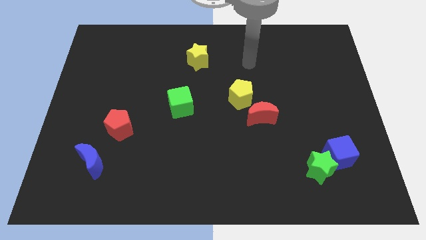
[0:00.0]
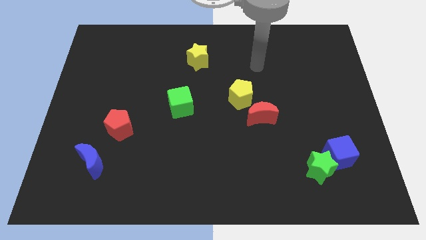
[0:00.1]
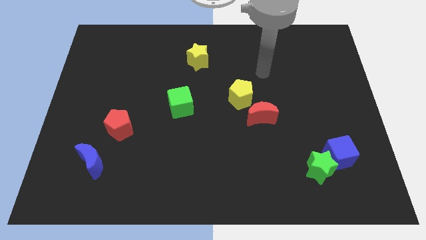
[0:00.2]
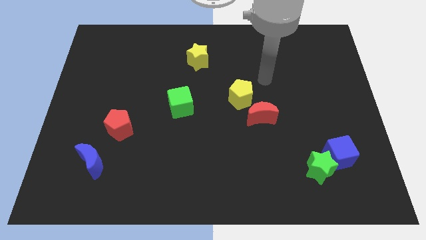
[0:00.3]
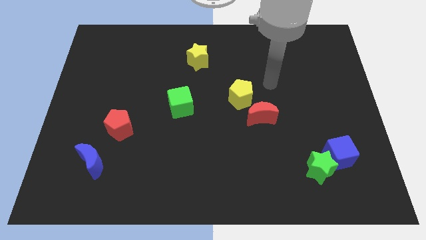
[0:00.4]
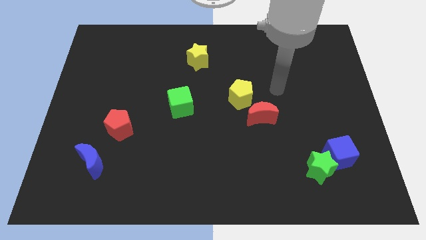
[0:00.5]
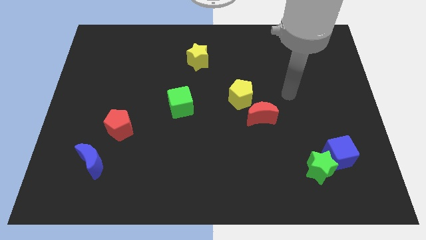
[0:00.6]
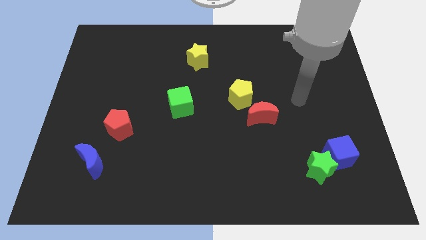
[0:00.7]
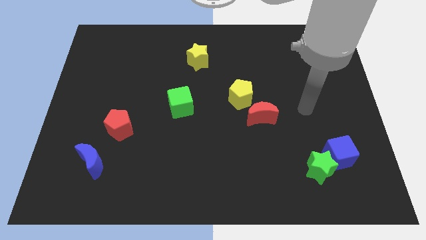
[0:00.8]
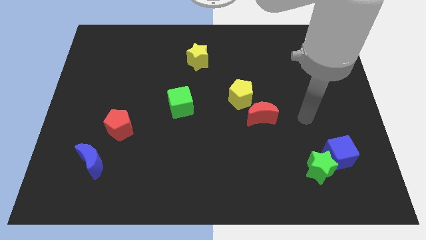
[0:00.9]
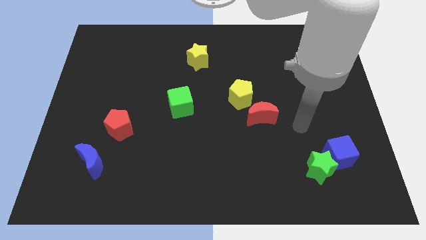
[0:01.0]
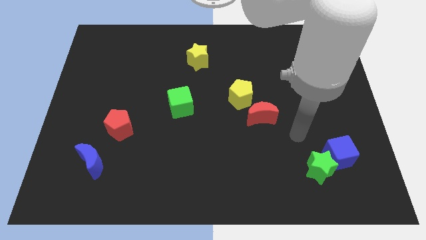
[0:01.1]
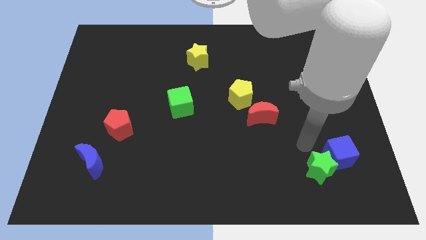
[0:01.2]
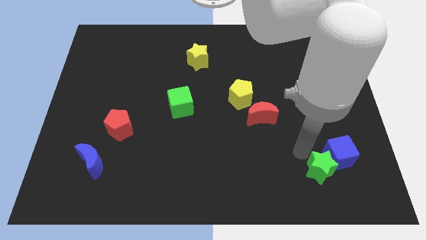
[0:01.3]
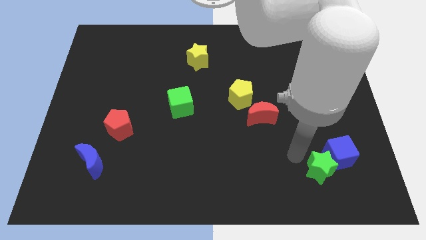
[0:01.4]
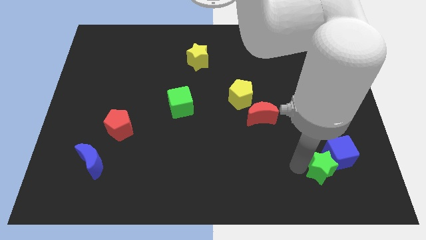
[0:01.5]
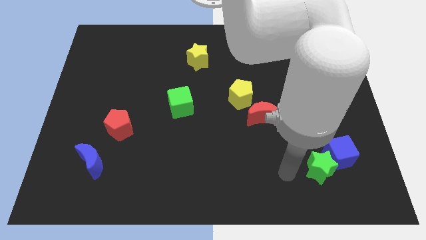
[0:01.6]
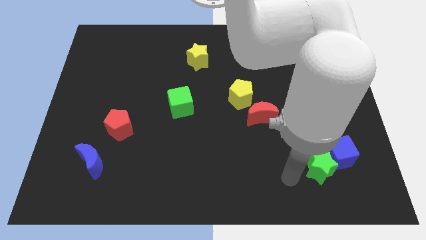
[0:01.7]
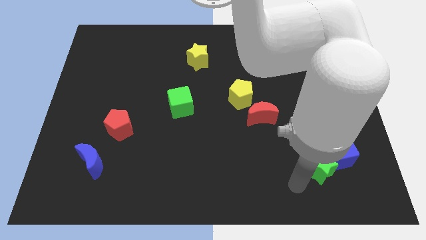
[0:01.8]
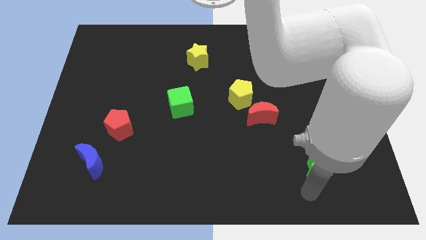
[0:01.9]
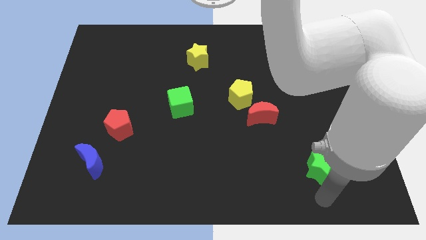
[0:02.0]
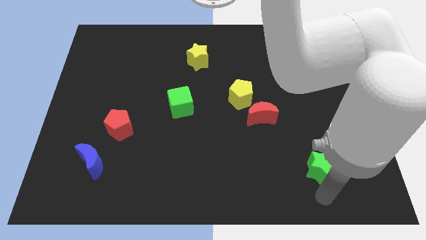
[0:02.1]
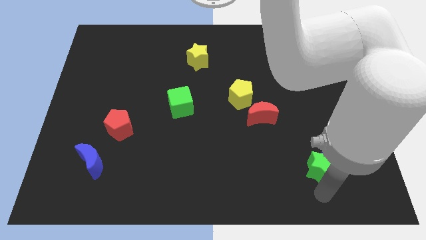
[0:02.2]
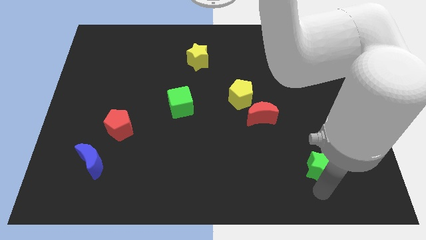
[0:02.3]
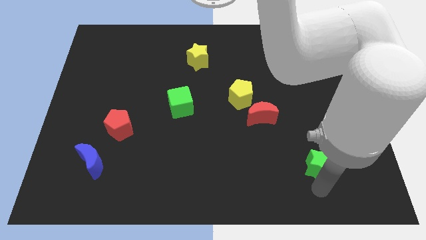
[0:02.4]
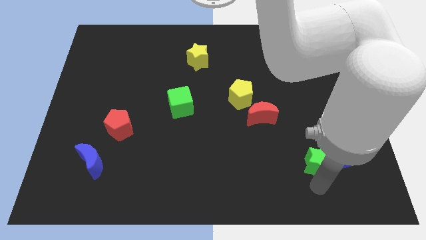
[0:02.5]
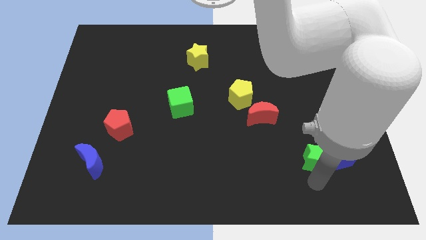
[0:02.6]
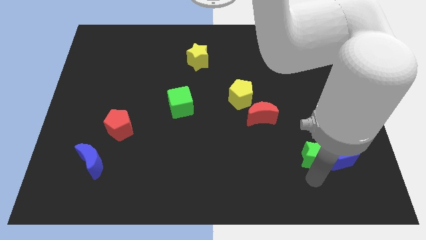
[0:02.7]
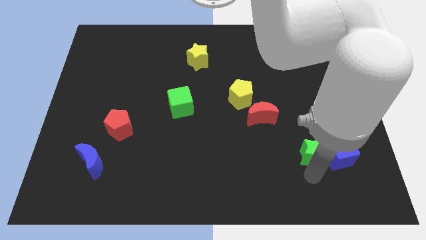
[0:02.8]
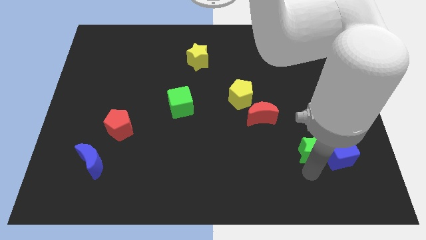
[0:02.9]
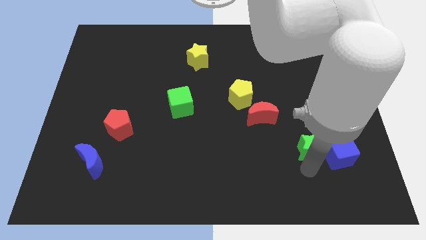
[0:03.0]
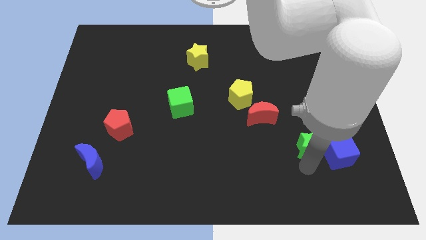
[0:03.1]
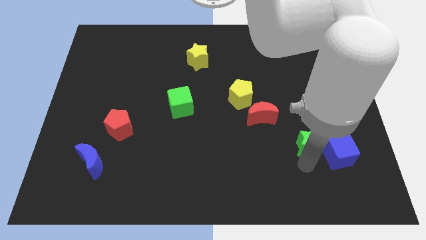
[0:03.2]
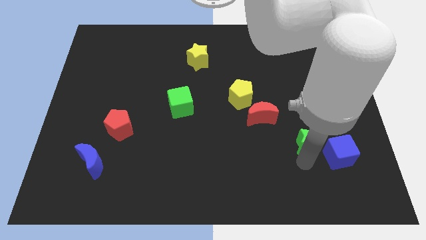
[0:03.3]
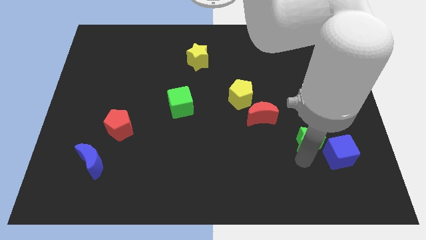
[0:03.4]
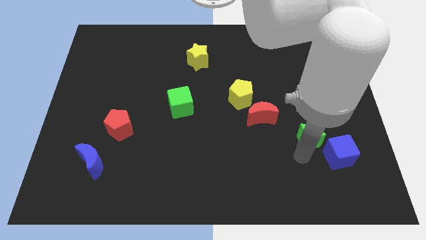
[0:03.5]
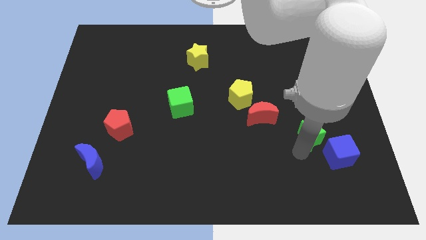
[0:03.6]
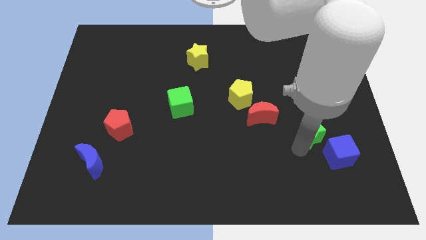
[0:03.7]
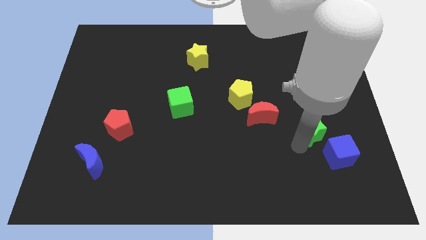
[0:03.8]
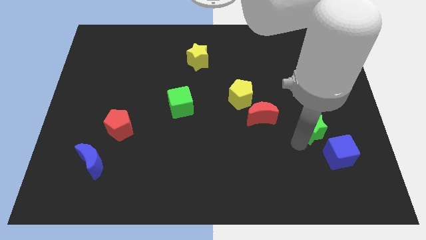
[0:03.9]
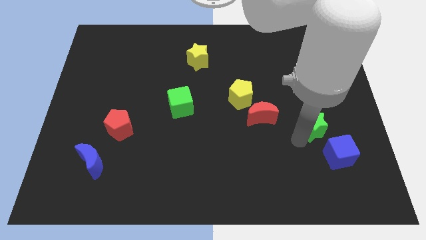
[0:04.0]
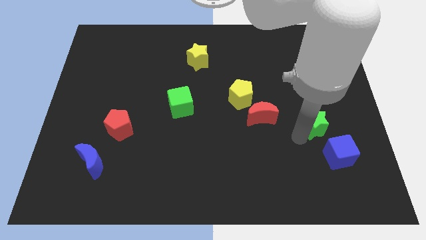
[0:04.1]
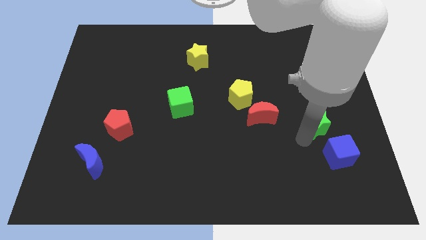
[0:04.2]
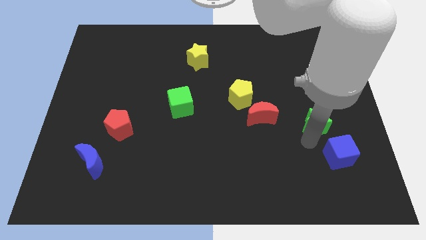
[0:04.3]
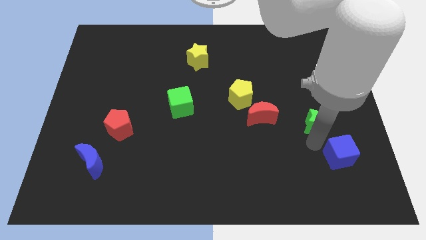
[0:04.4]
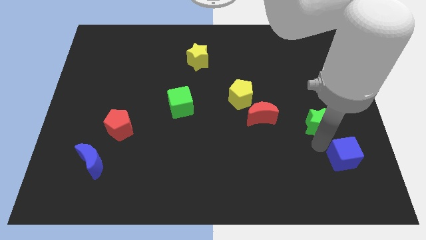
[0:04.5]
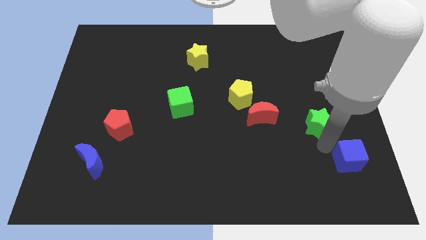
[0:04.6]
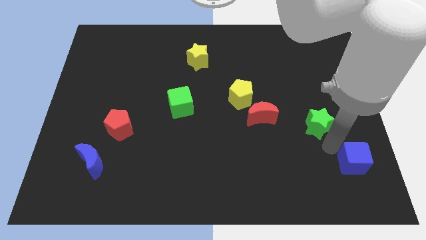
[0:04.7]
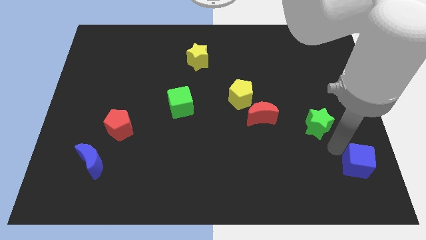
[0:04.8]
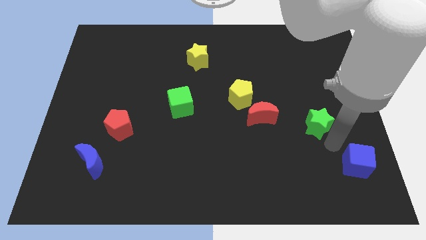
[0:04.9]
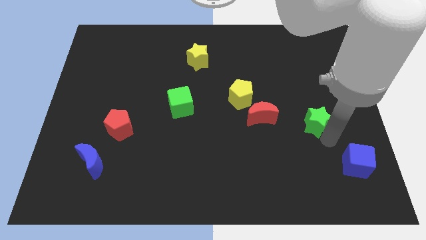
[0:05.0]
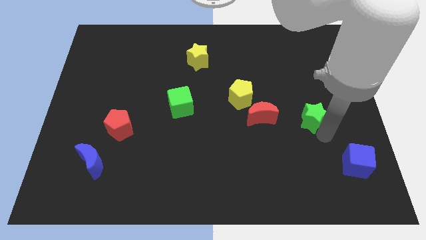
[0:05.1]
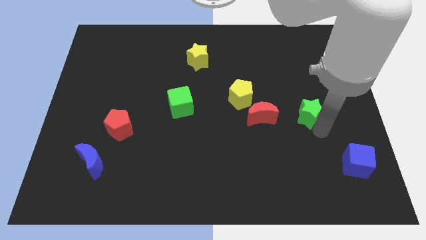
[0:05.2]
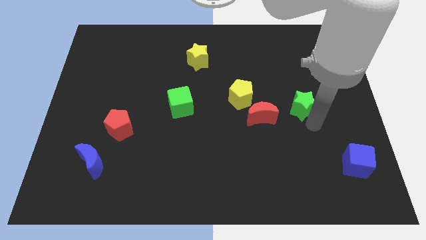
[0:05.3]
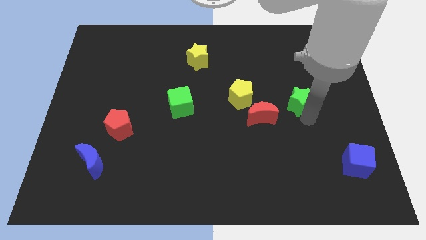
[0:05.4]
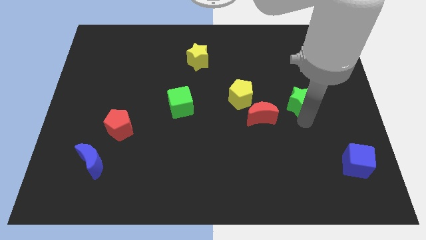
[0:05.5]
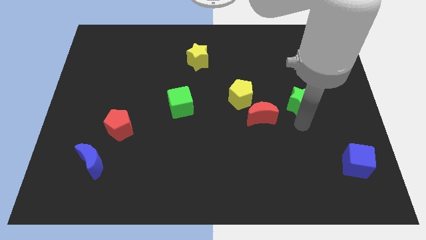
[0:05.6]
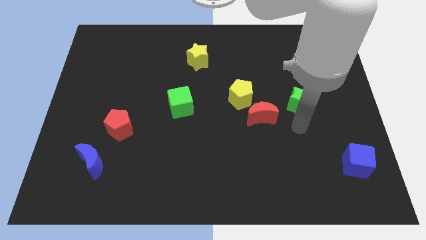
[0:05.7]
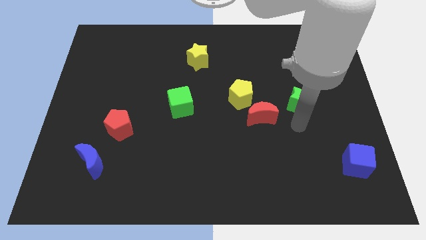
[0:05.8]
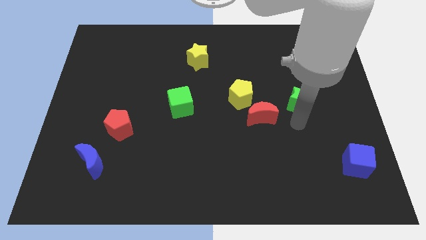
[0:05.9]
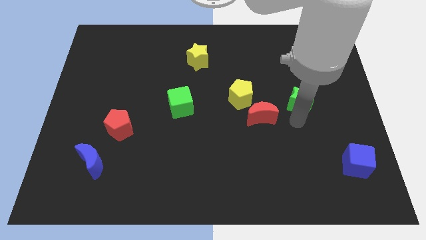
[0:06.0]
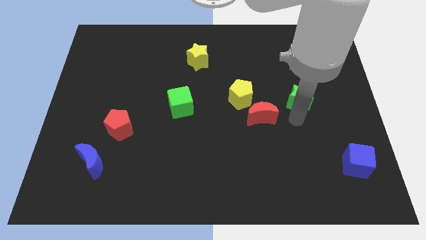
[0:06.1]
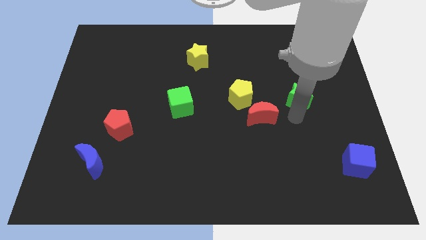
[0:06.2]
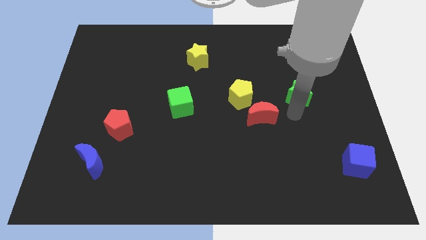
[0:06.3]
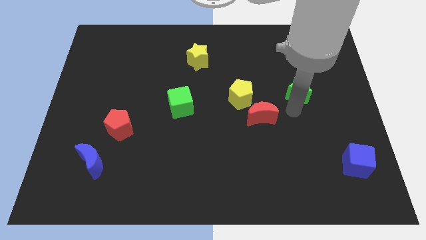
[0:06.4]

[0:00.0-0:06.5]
push the green star upwards

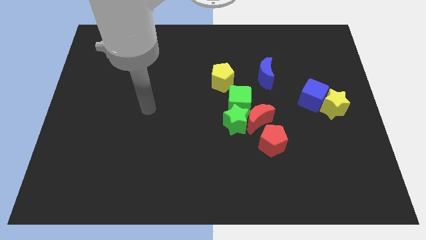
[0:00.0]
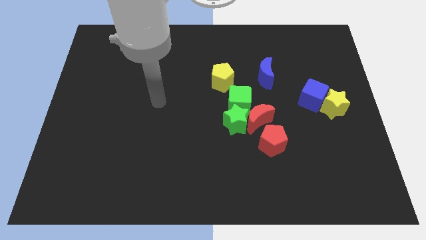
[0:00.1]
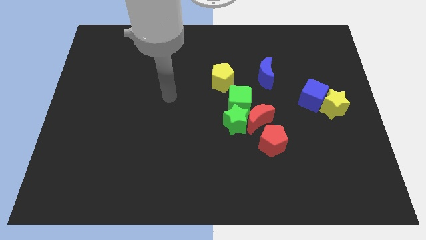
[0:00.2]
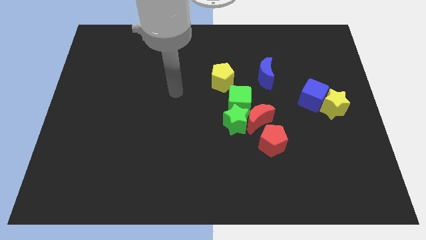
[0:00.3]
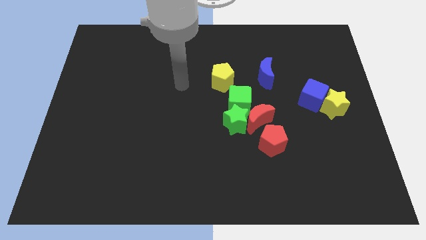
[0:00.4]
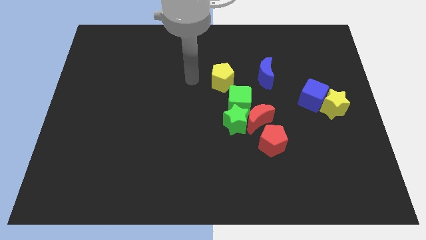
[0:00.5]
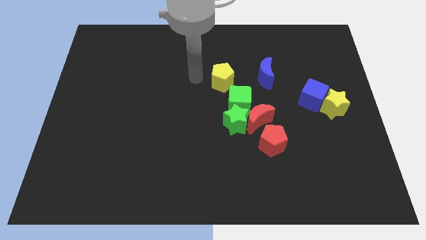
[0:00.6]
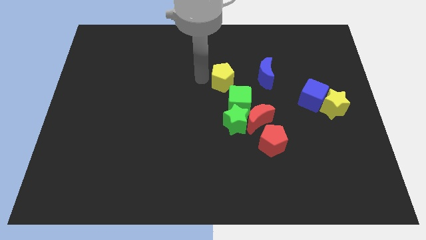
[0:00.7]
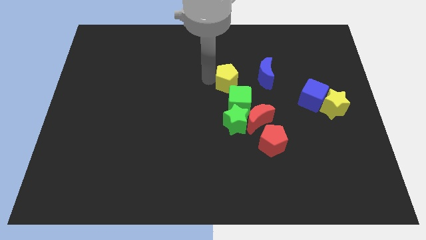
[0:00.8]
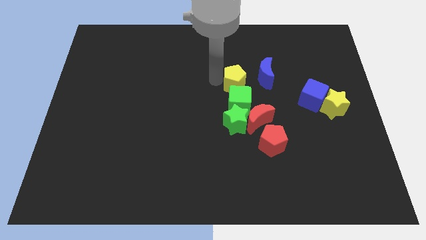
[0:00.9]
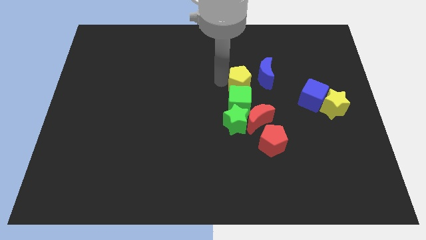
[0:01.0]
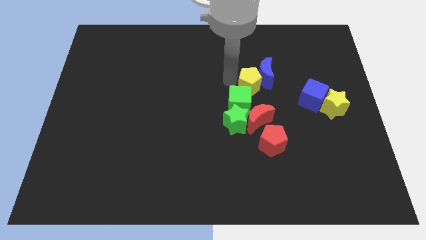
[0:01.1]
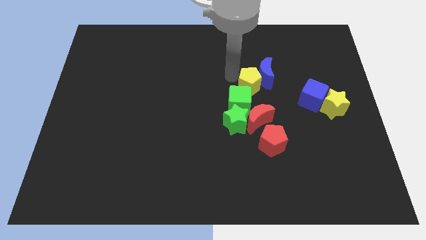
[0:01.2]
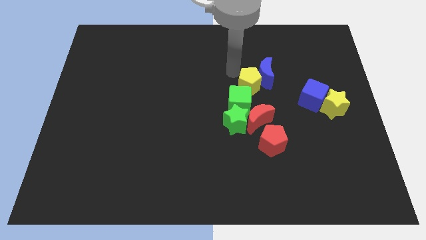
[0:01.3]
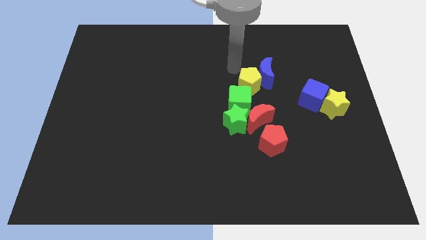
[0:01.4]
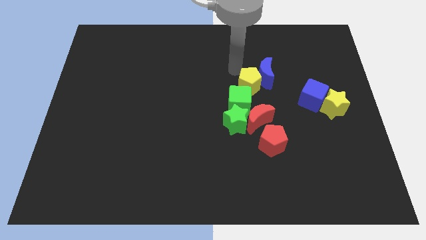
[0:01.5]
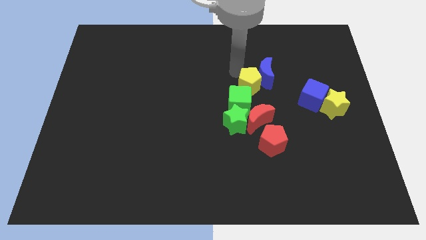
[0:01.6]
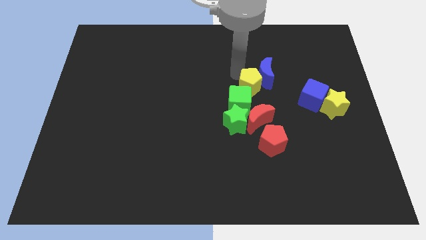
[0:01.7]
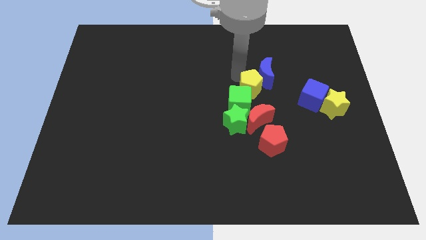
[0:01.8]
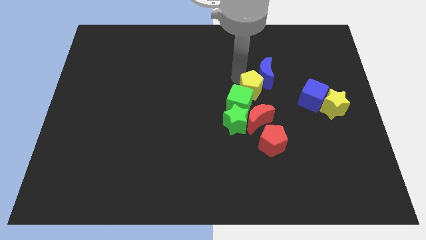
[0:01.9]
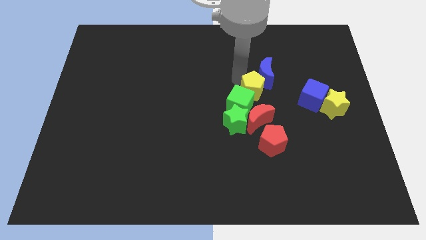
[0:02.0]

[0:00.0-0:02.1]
slightly push the yellow pentagon down and right
